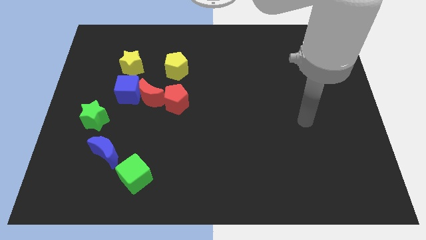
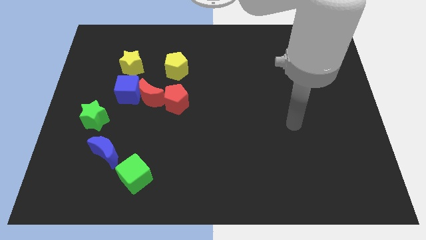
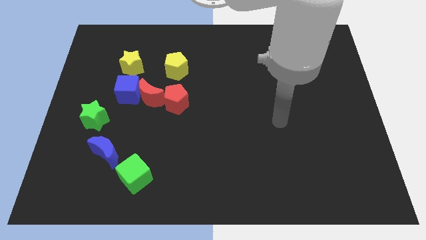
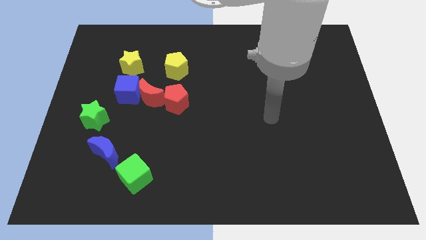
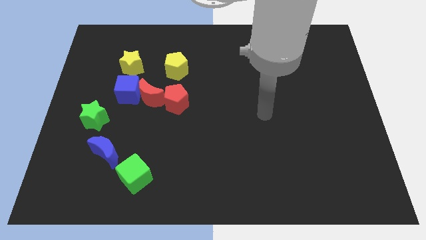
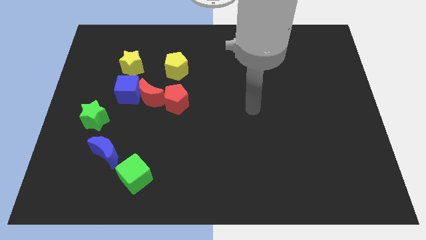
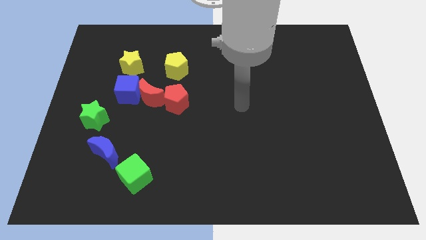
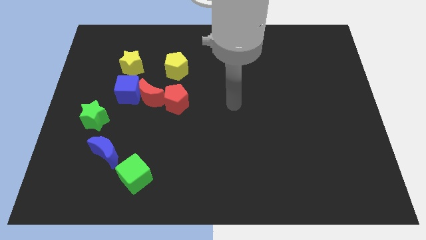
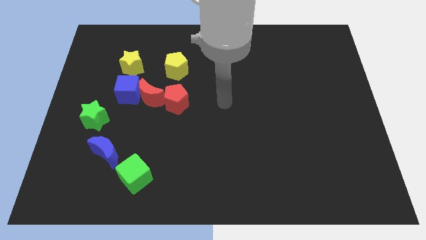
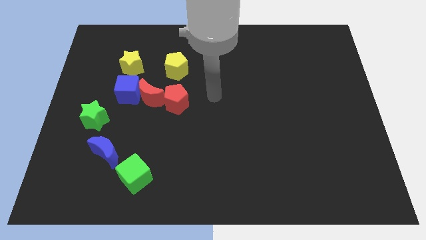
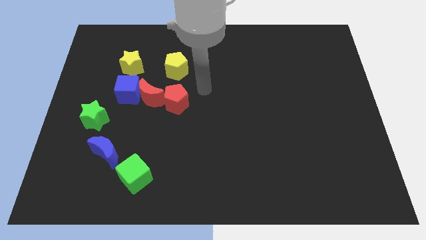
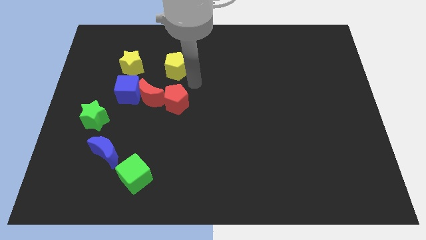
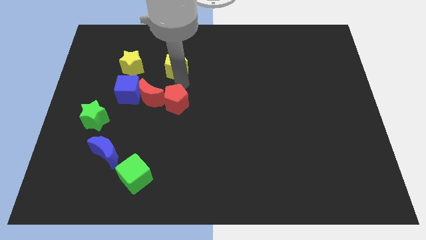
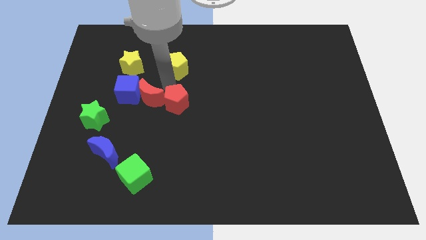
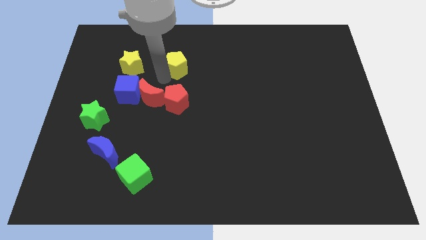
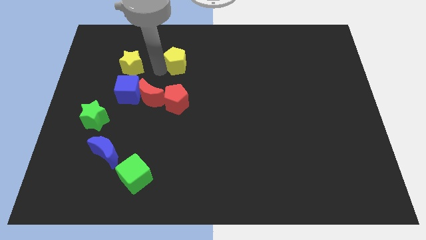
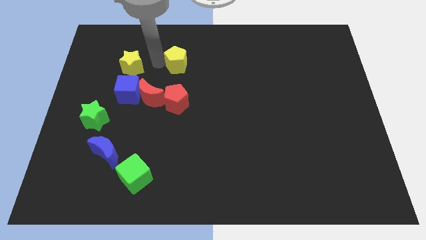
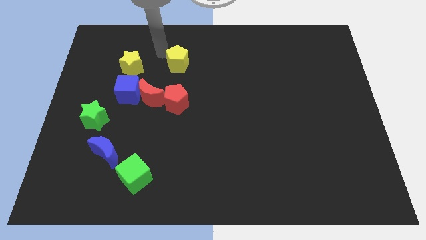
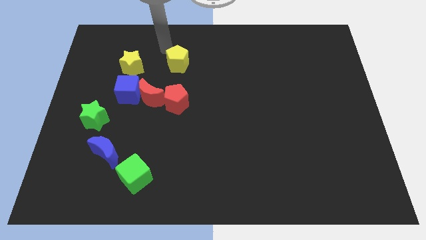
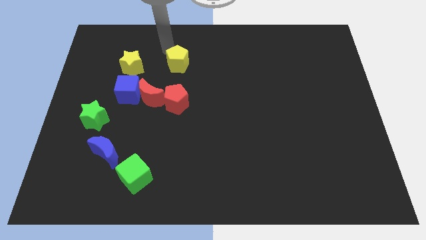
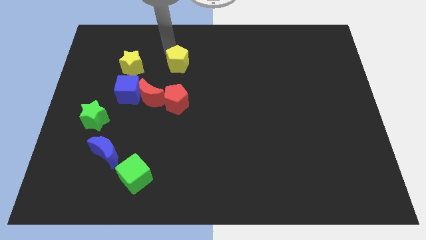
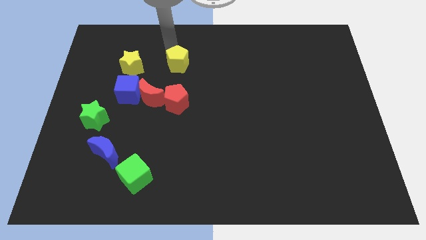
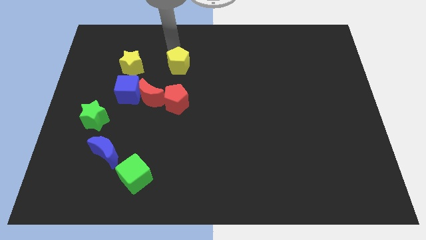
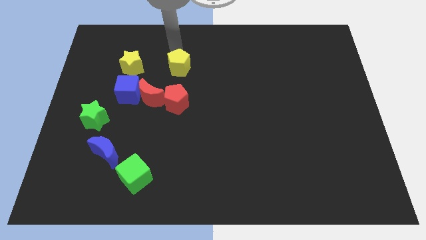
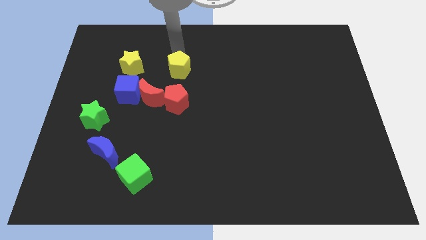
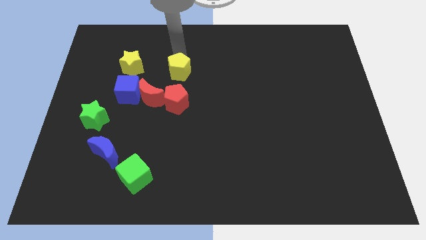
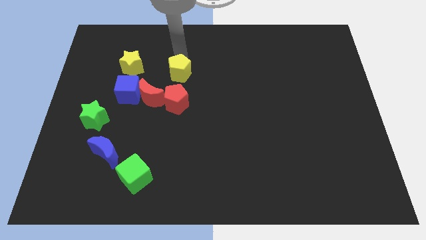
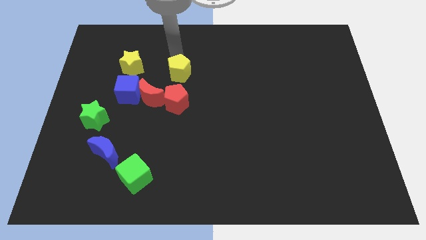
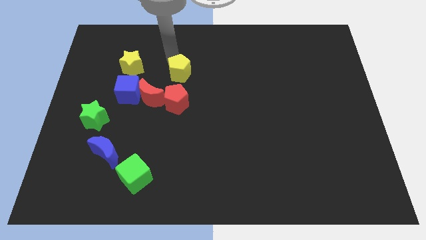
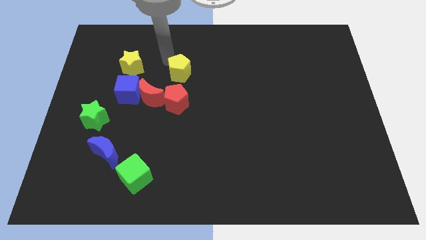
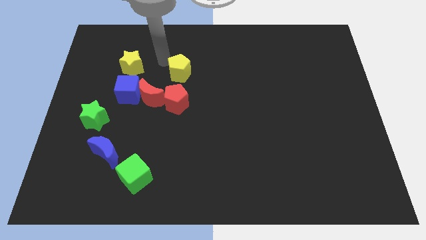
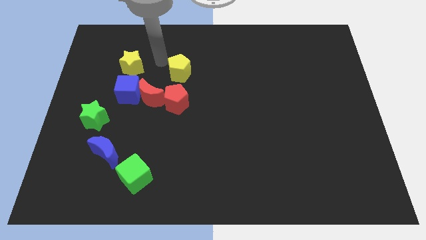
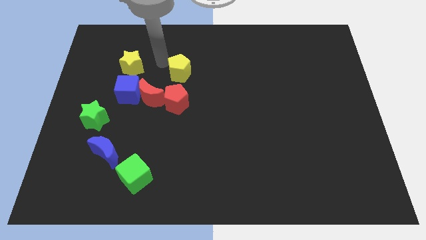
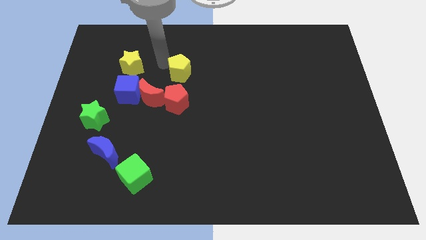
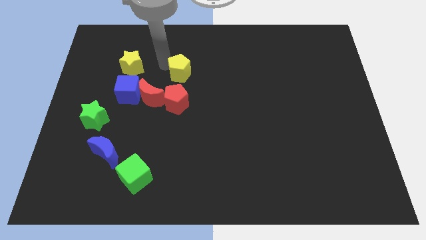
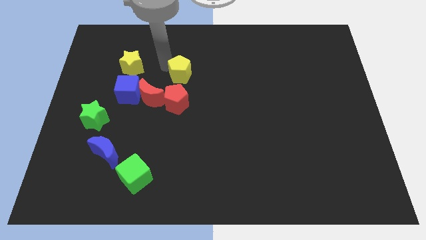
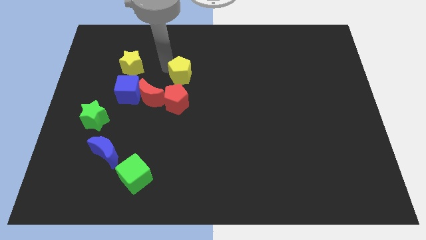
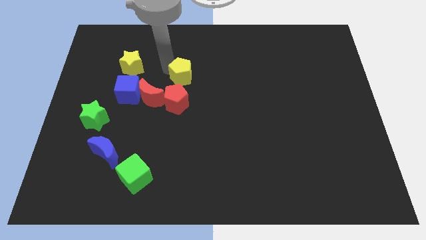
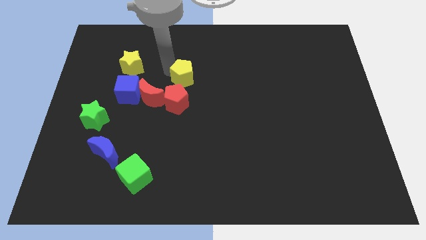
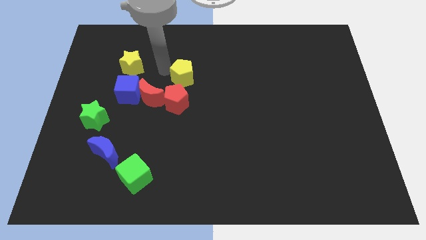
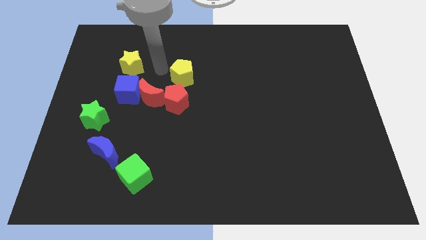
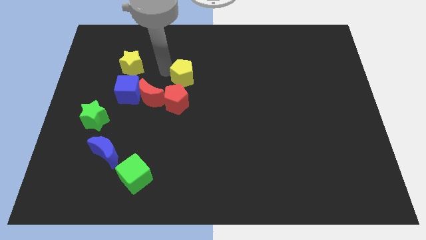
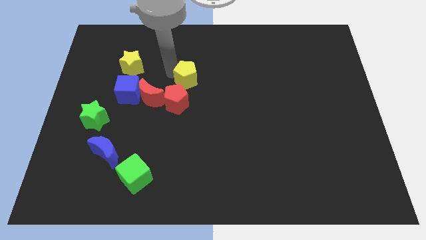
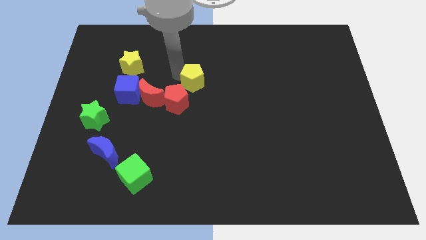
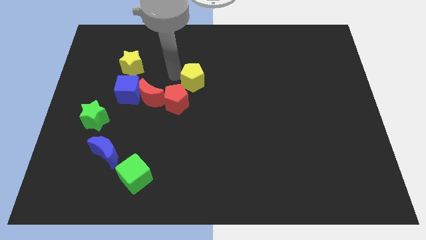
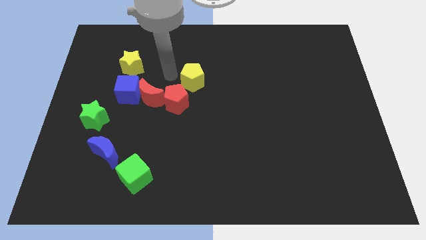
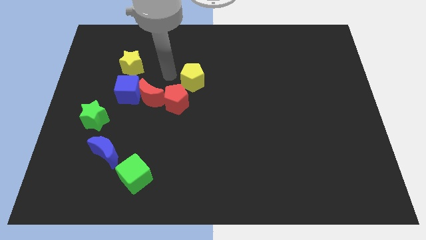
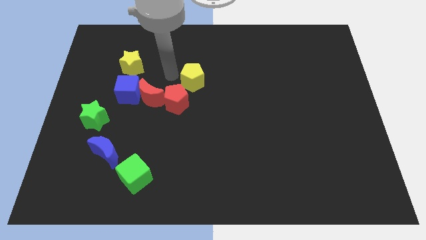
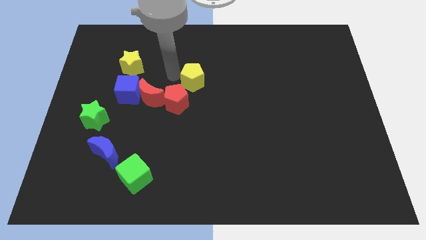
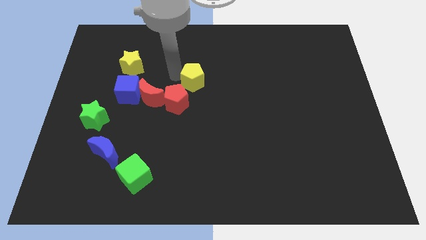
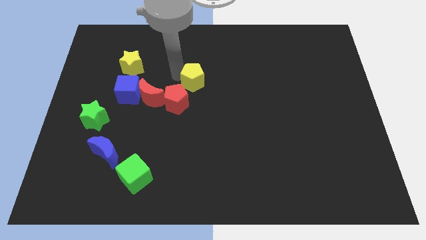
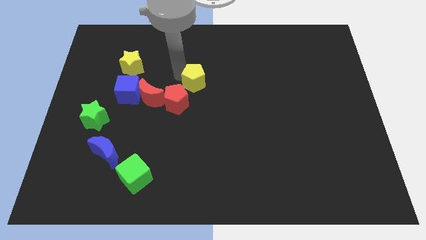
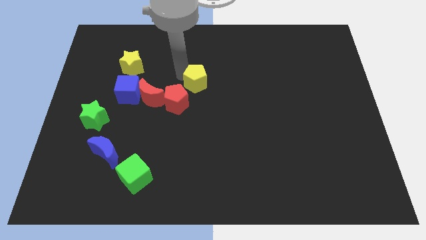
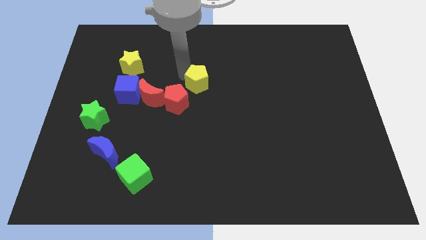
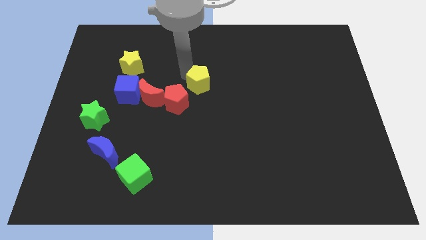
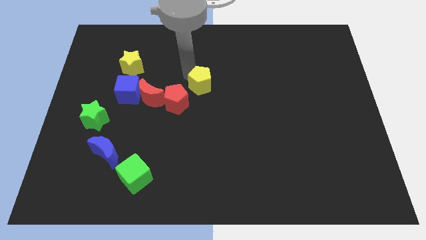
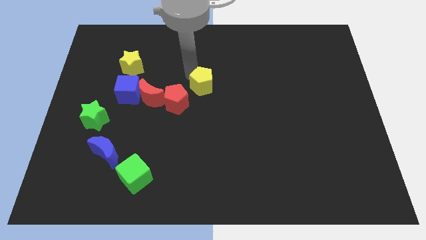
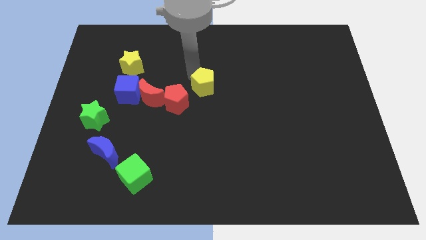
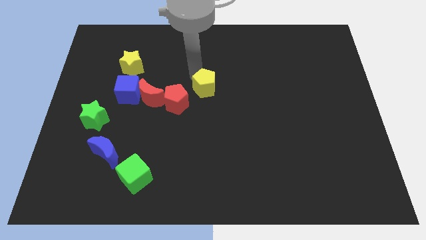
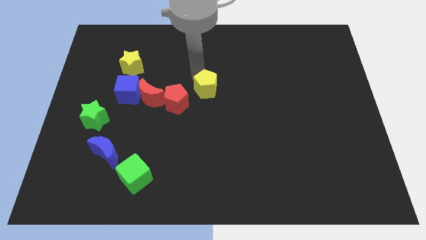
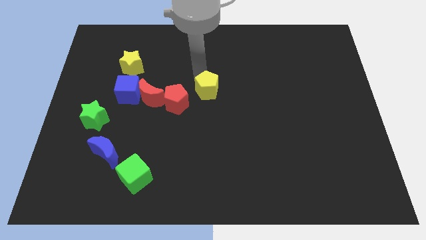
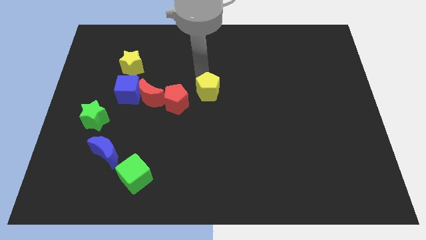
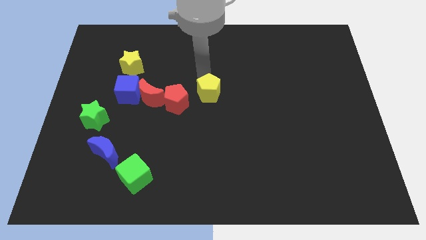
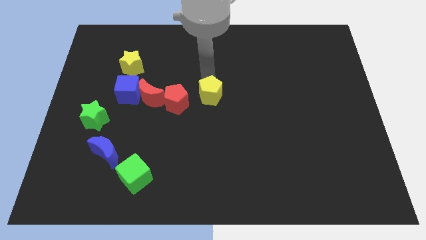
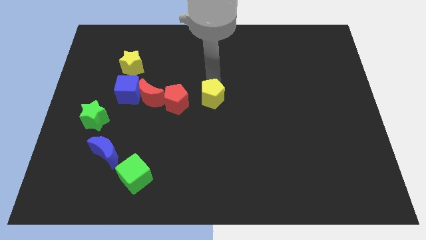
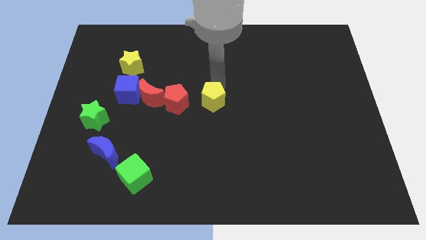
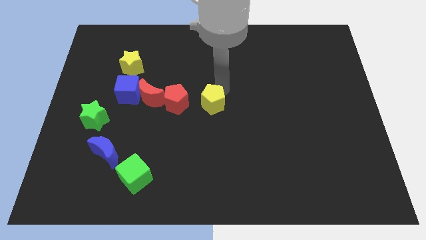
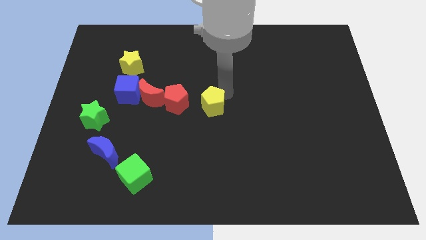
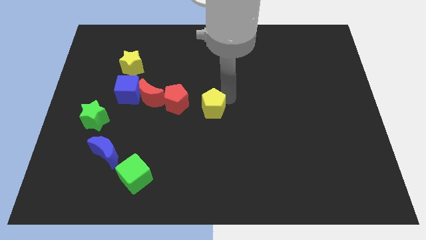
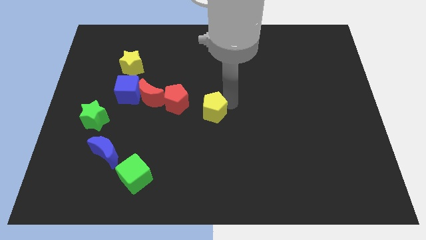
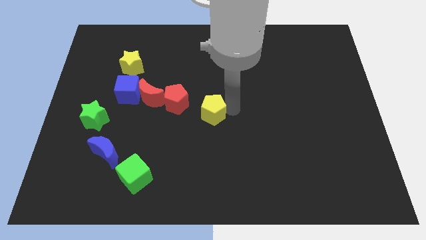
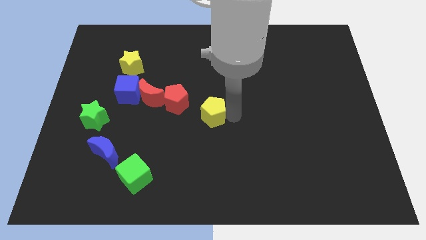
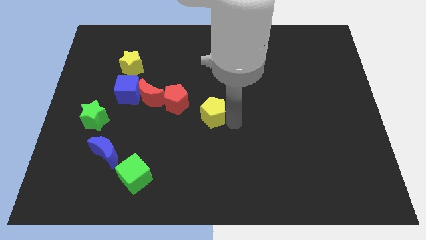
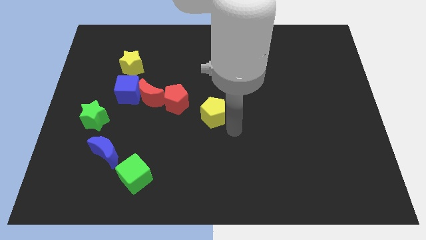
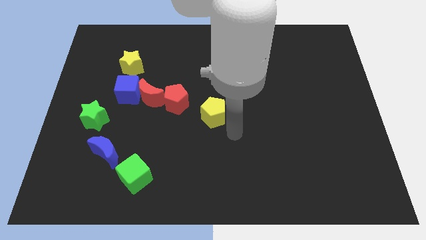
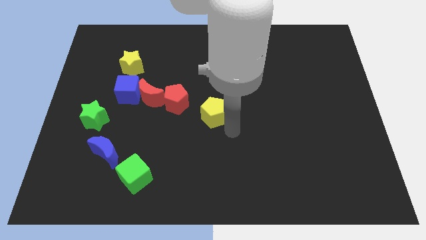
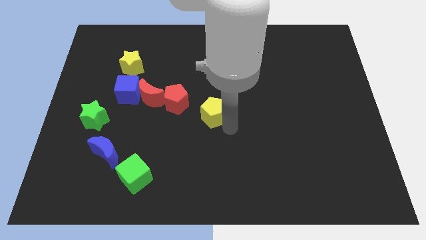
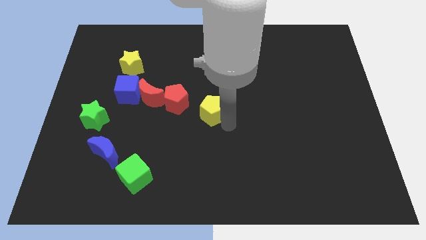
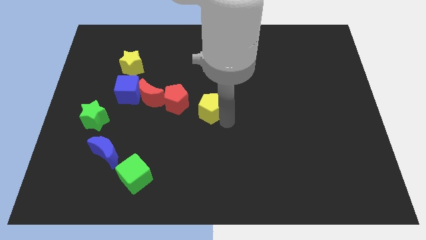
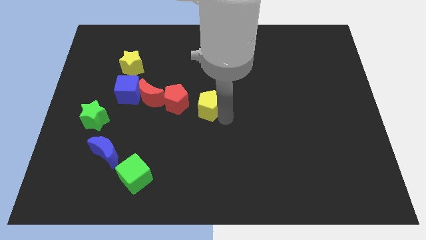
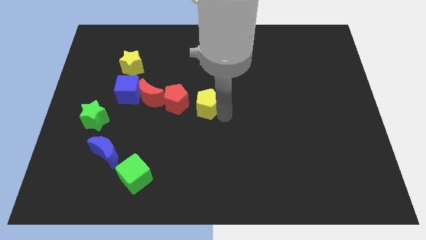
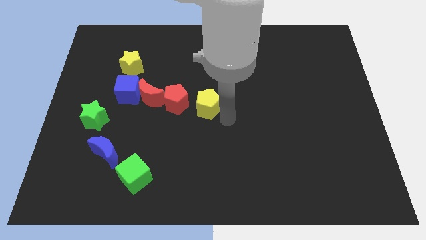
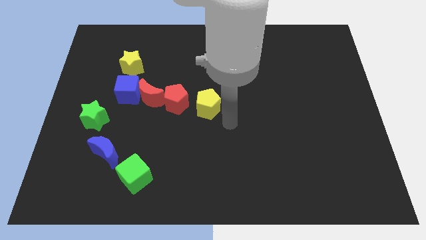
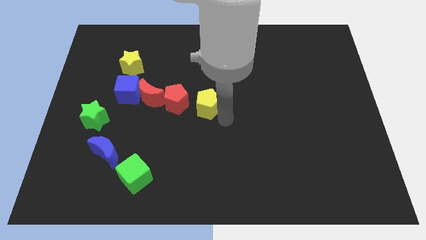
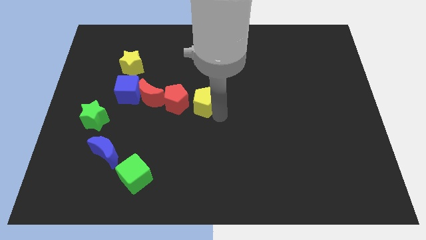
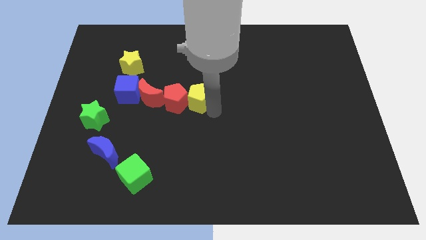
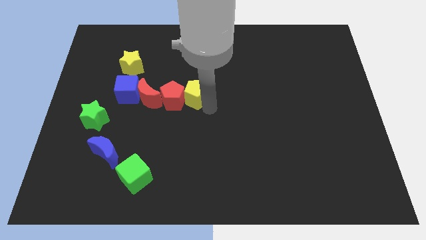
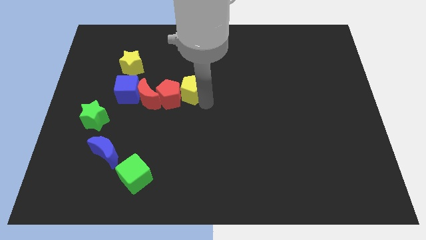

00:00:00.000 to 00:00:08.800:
push the yellow pentagon to the right of the blue cube
